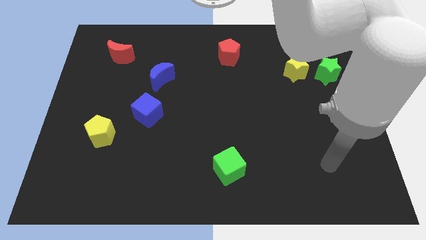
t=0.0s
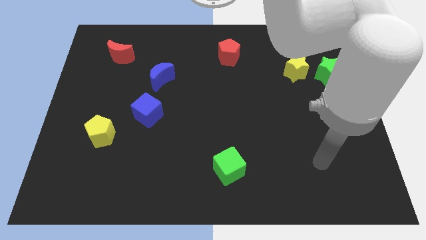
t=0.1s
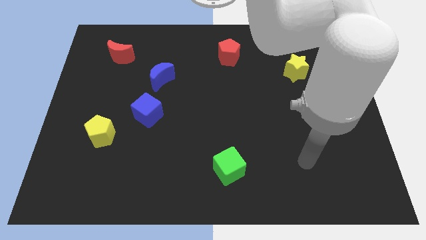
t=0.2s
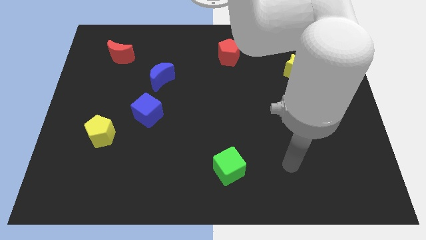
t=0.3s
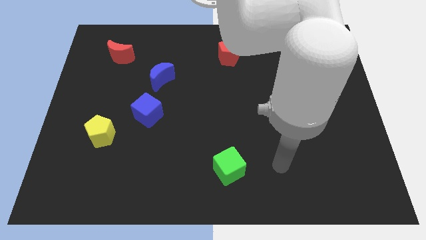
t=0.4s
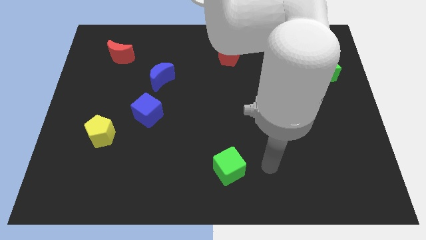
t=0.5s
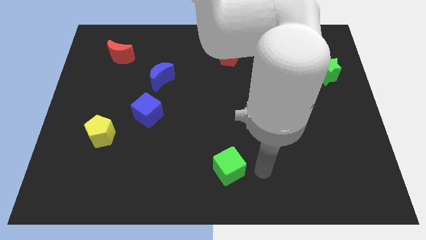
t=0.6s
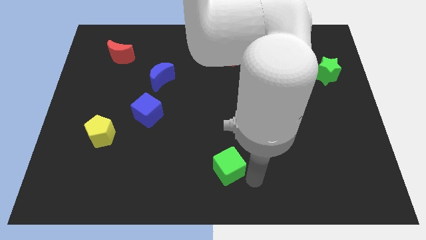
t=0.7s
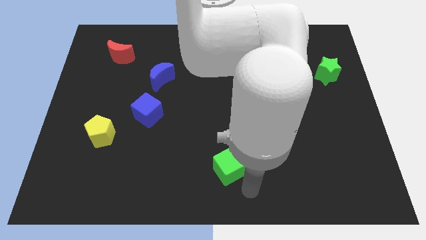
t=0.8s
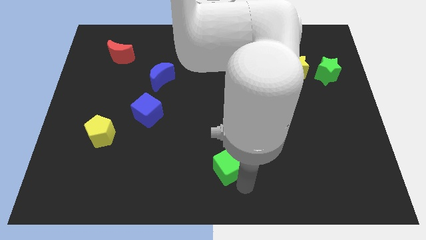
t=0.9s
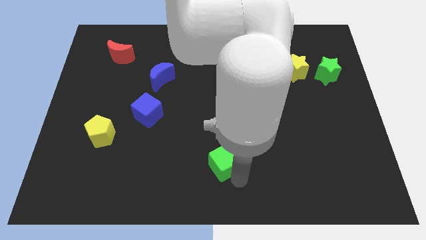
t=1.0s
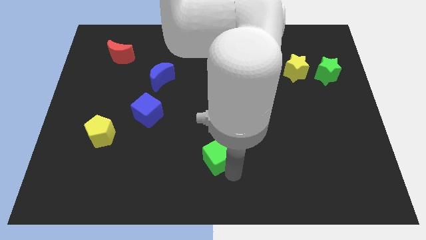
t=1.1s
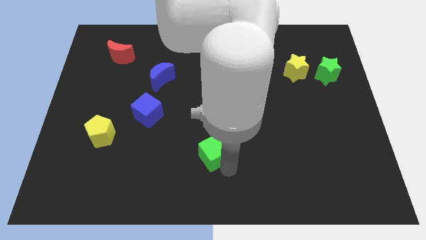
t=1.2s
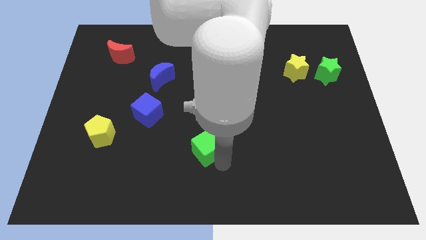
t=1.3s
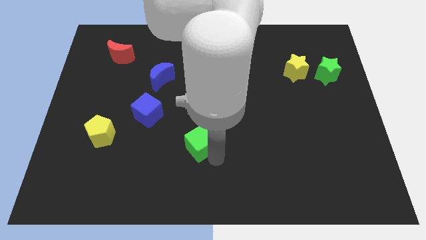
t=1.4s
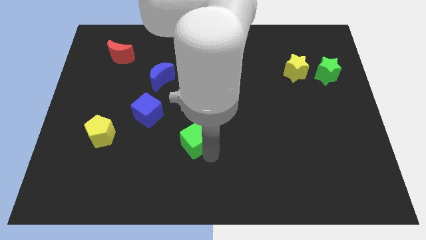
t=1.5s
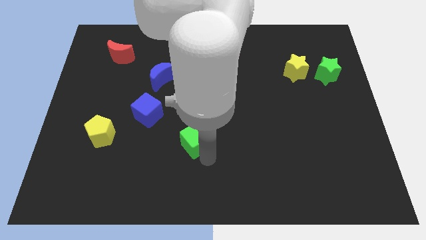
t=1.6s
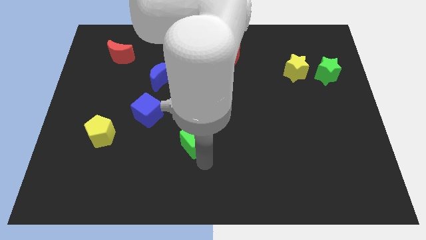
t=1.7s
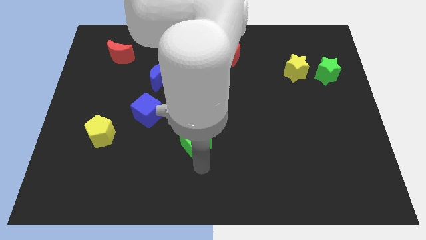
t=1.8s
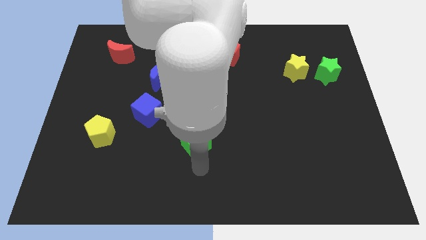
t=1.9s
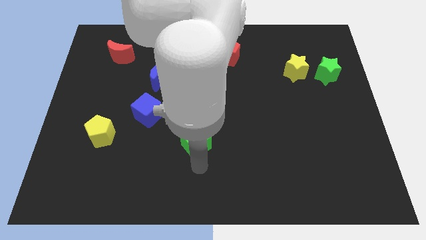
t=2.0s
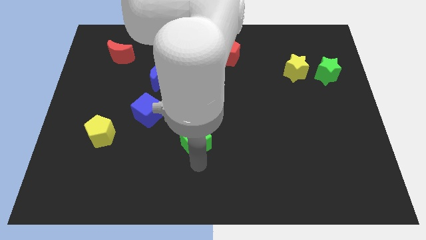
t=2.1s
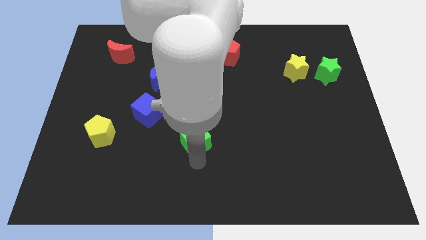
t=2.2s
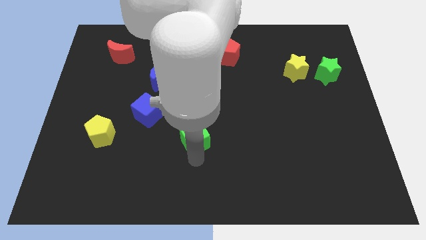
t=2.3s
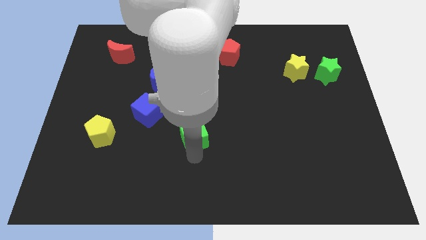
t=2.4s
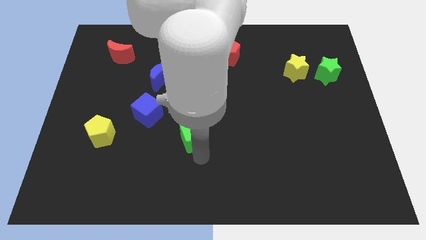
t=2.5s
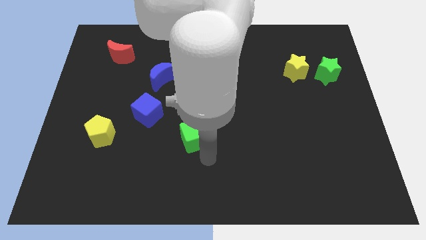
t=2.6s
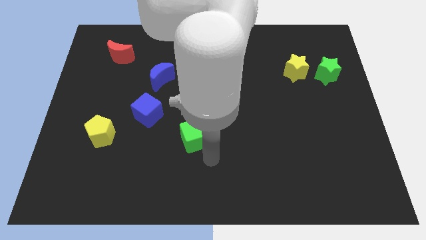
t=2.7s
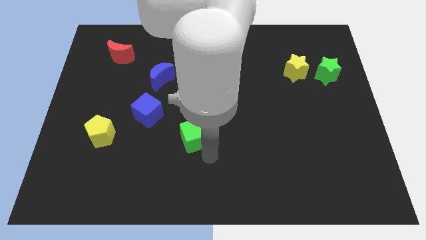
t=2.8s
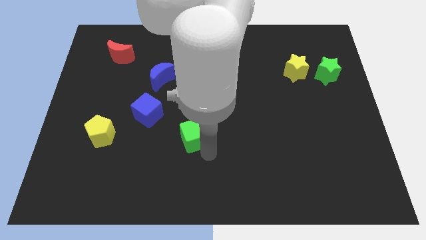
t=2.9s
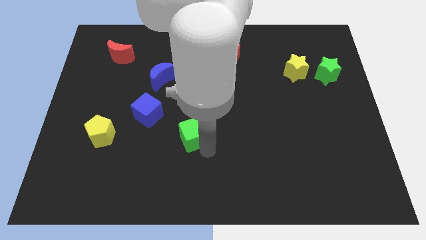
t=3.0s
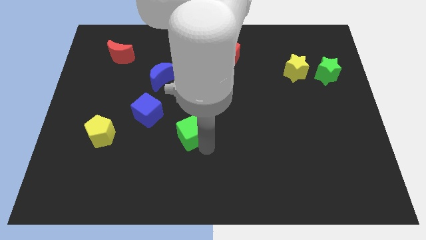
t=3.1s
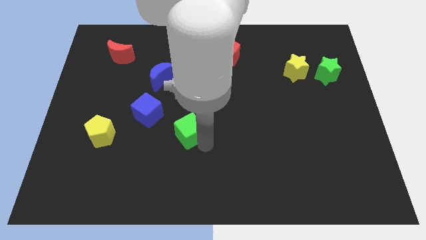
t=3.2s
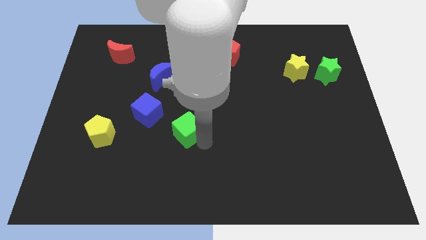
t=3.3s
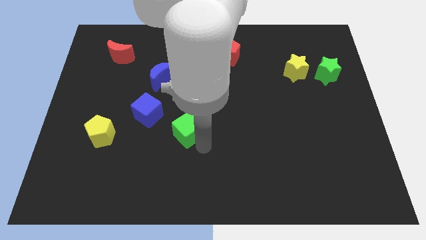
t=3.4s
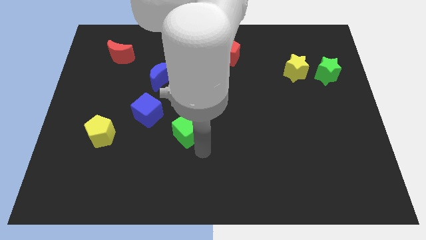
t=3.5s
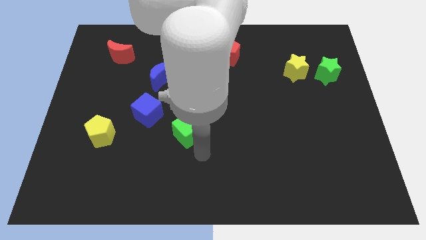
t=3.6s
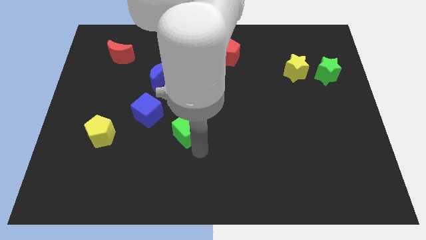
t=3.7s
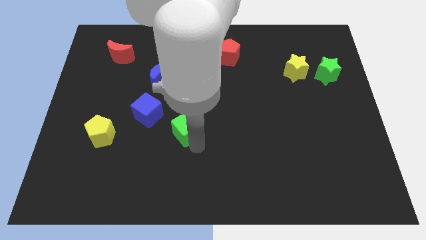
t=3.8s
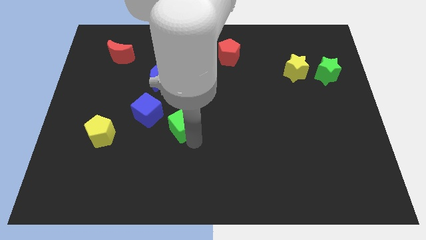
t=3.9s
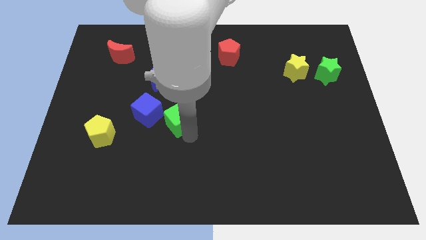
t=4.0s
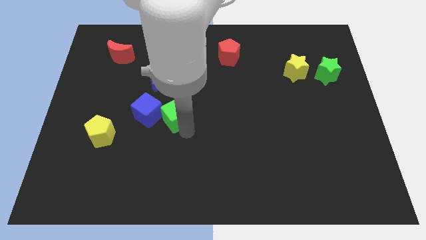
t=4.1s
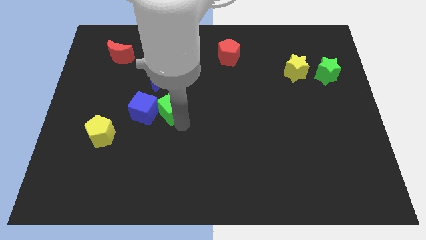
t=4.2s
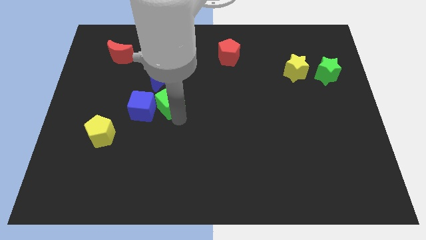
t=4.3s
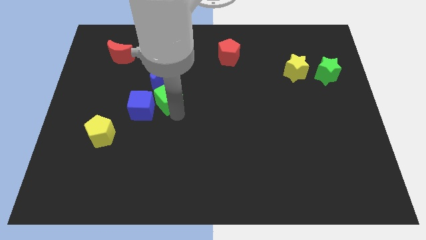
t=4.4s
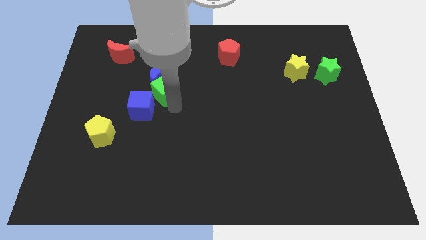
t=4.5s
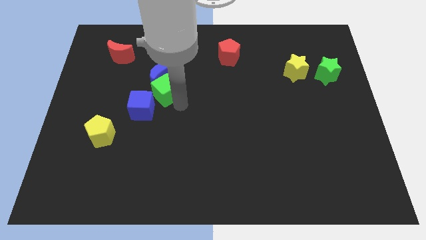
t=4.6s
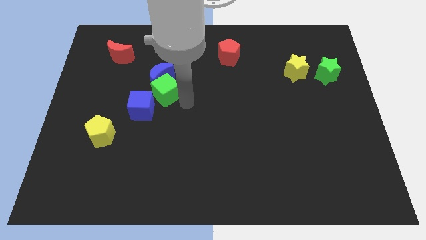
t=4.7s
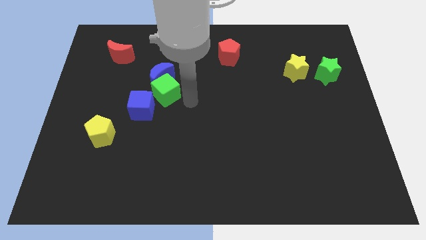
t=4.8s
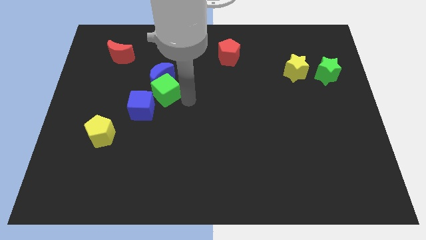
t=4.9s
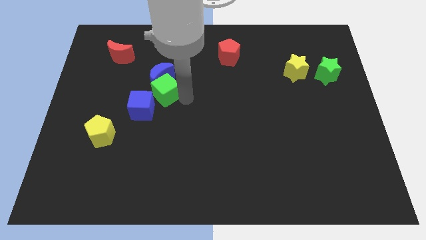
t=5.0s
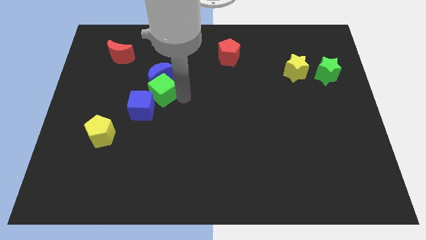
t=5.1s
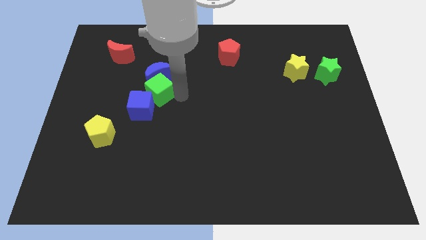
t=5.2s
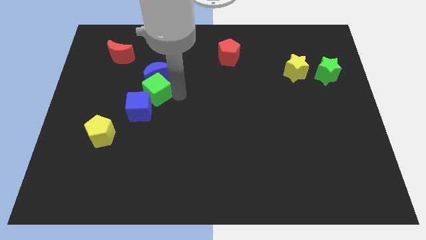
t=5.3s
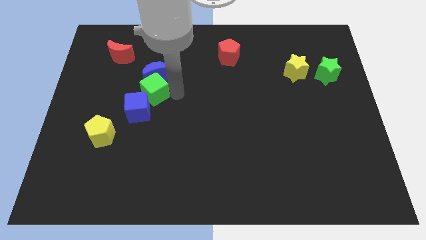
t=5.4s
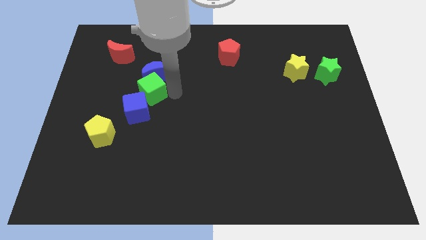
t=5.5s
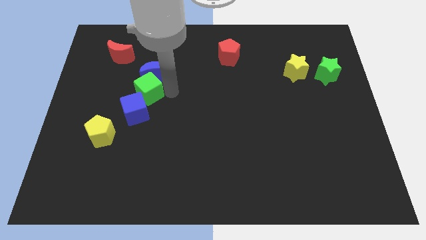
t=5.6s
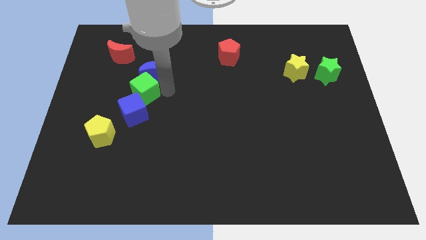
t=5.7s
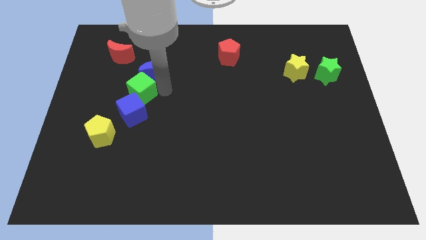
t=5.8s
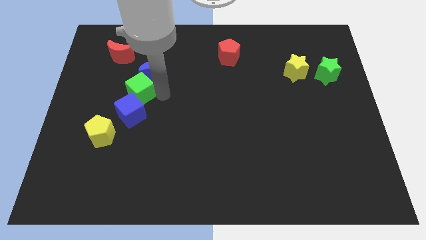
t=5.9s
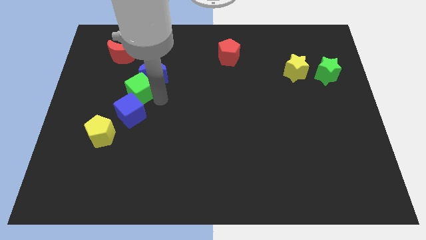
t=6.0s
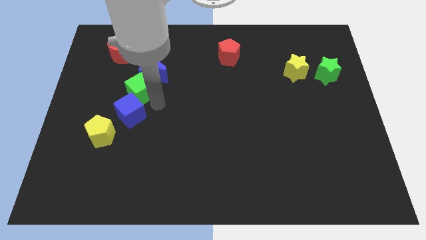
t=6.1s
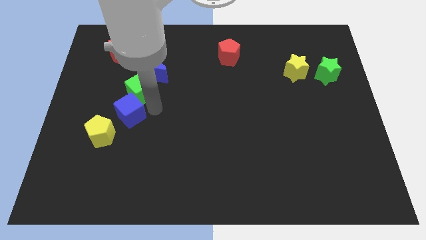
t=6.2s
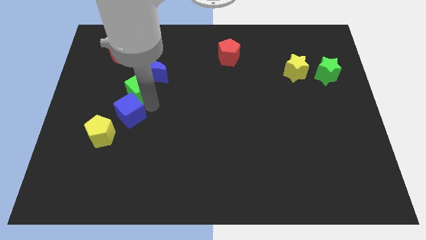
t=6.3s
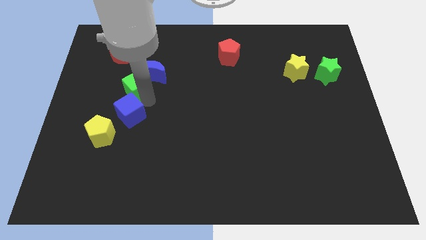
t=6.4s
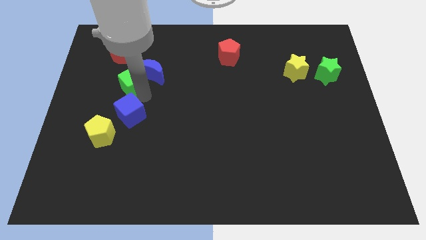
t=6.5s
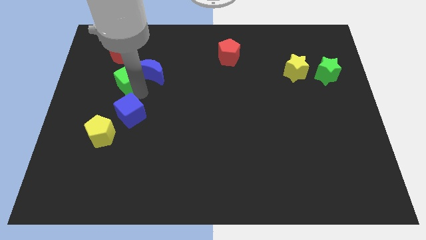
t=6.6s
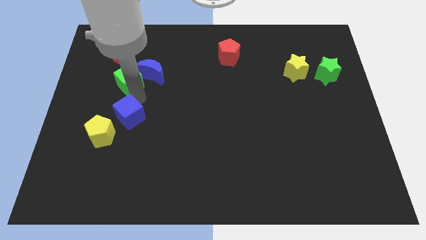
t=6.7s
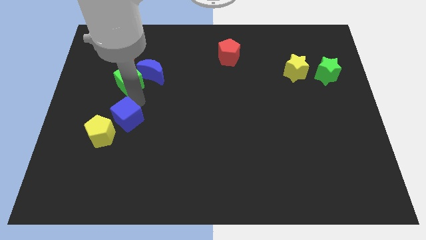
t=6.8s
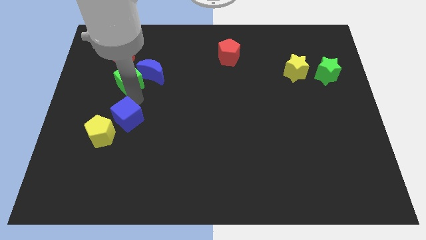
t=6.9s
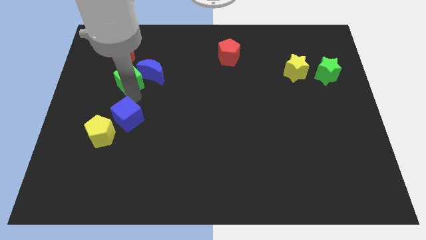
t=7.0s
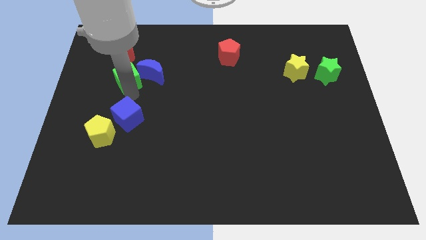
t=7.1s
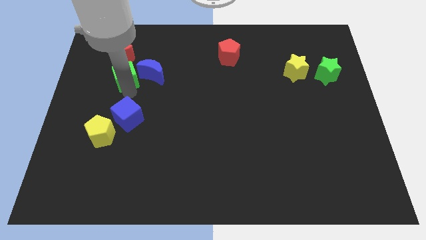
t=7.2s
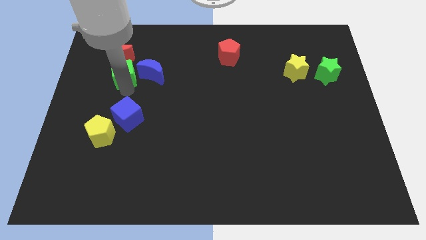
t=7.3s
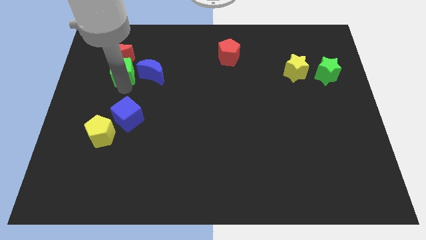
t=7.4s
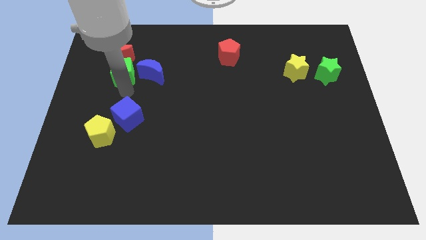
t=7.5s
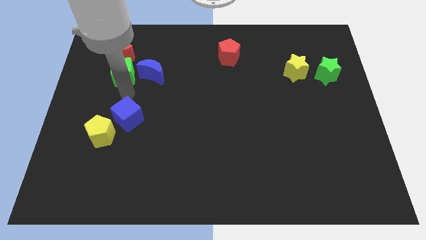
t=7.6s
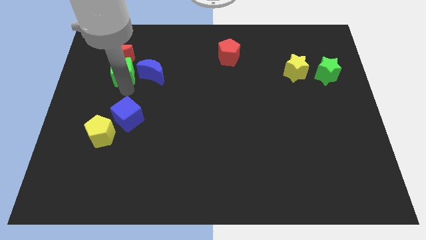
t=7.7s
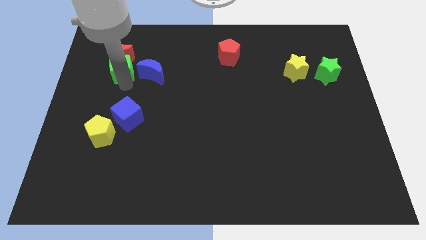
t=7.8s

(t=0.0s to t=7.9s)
put the green cube to the red moon
